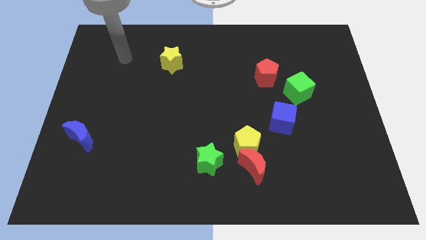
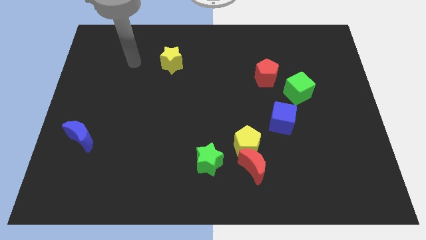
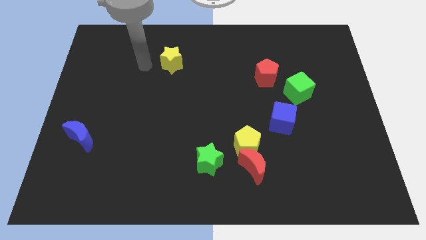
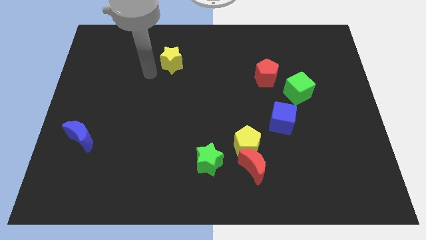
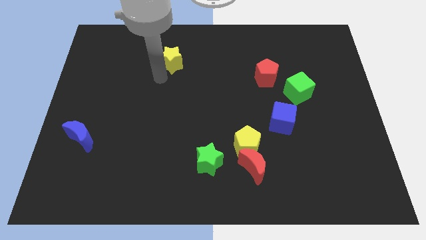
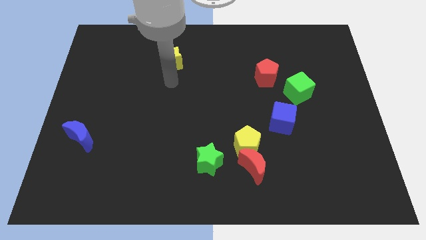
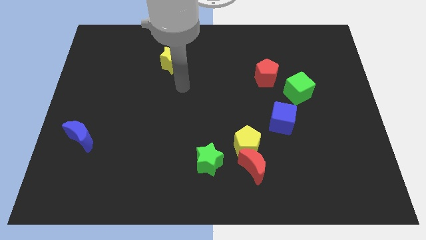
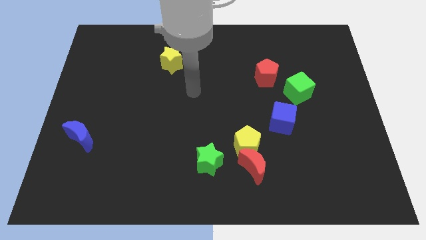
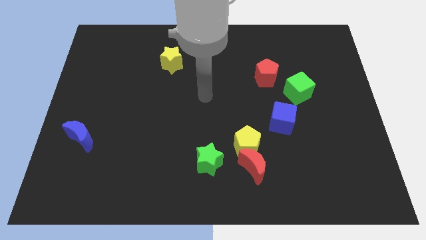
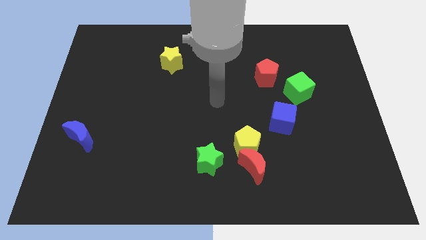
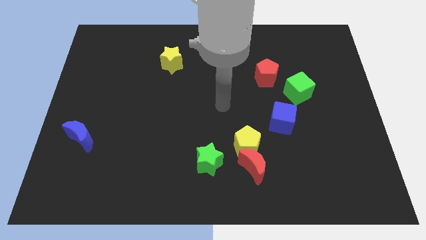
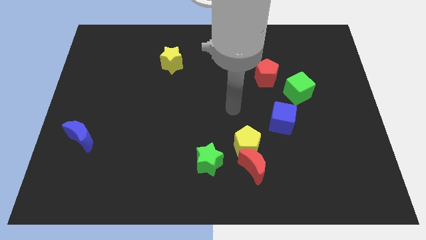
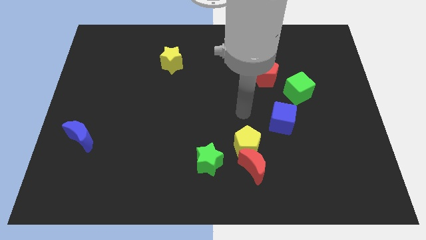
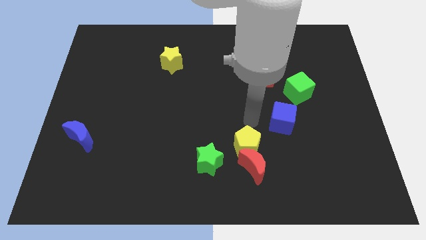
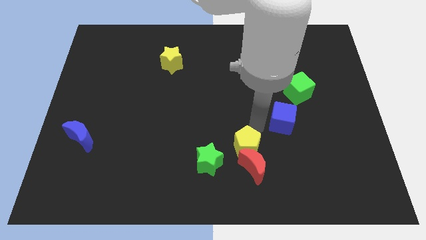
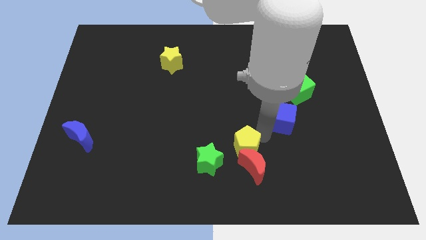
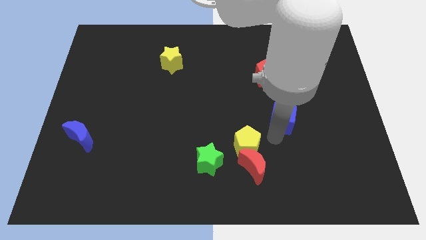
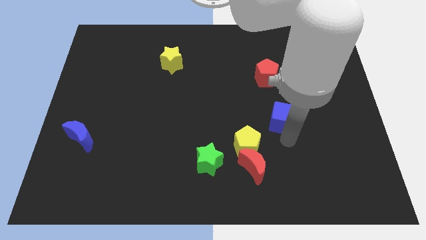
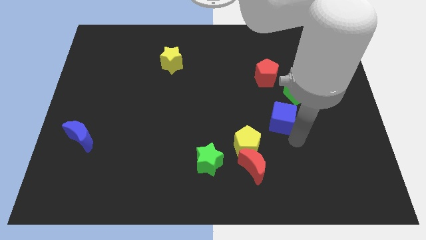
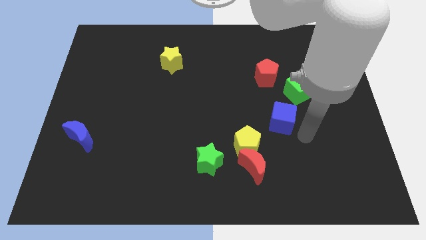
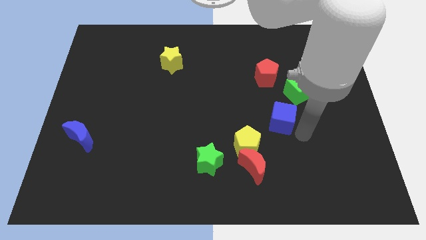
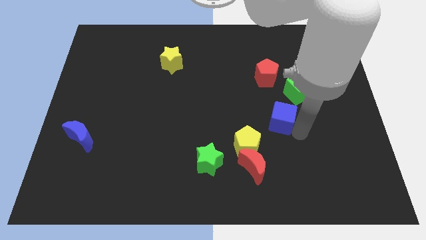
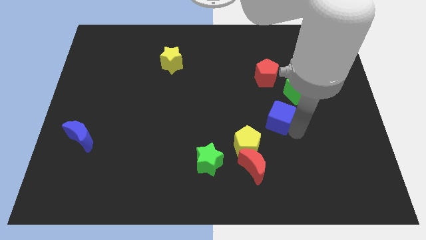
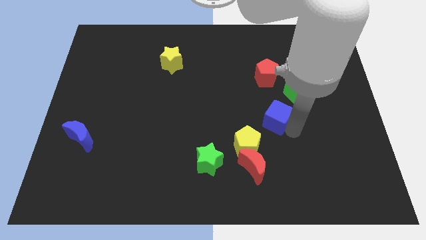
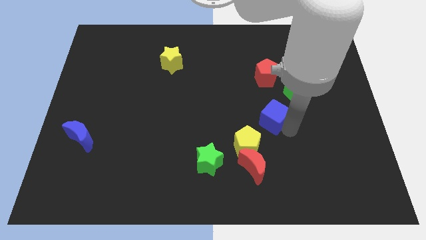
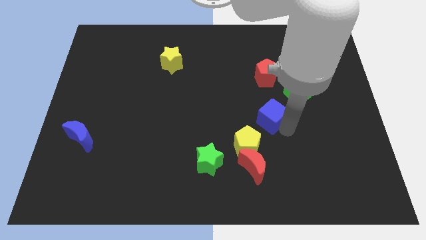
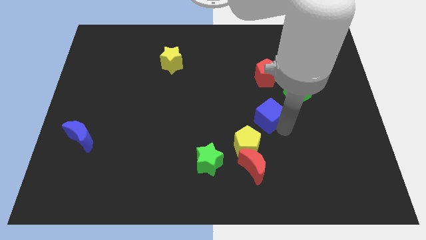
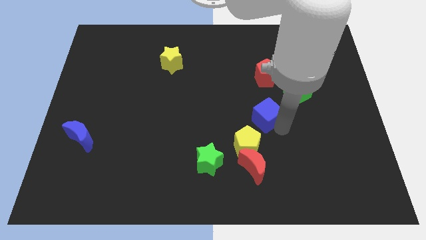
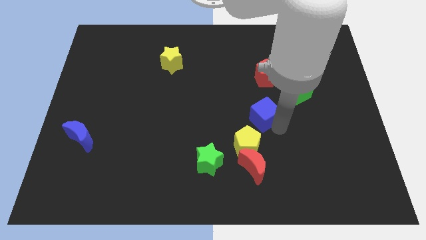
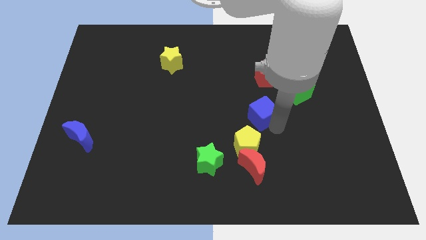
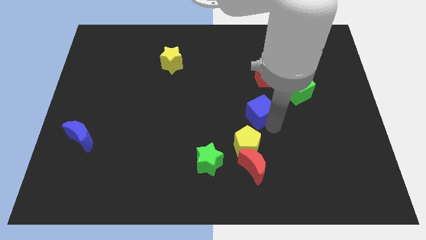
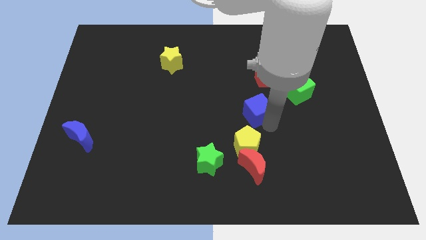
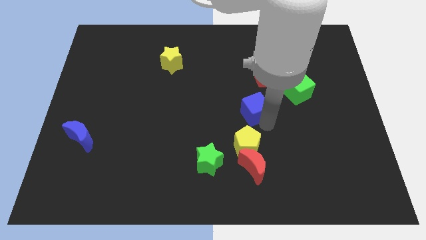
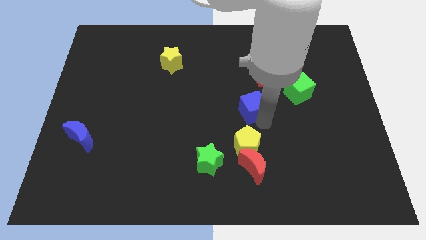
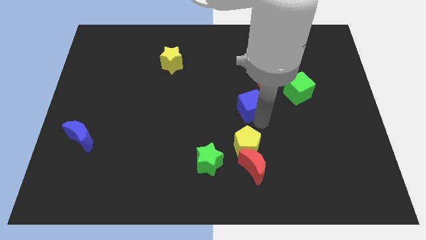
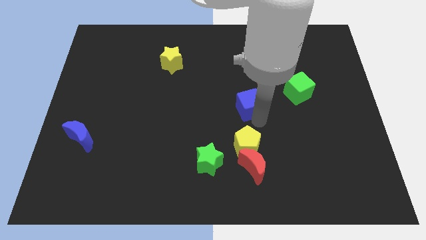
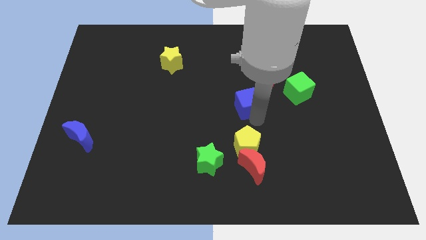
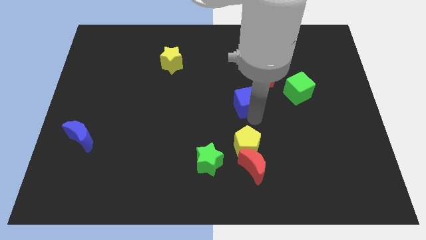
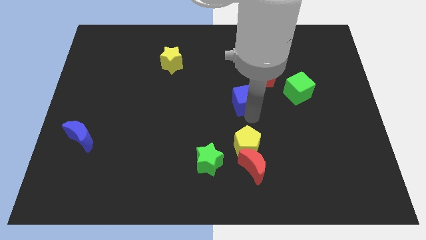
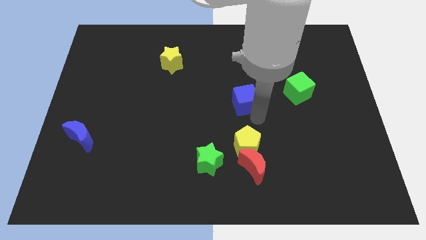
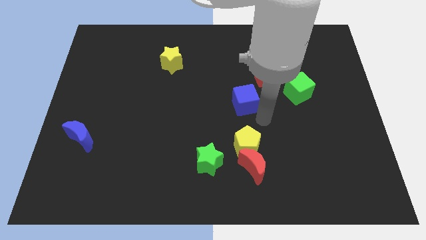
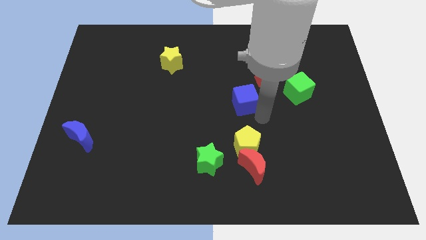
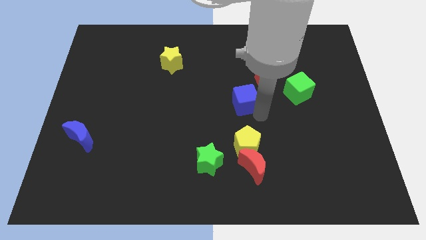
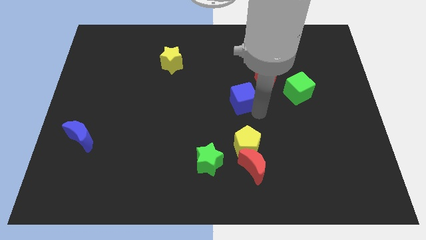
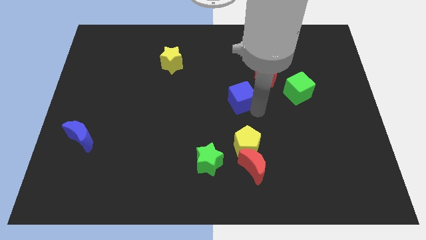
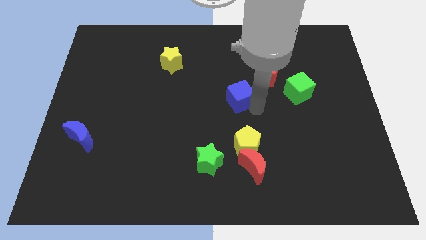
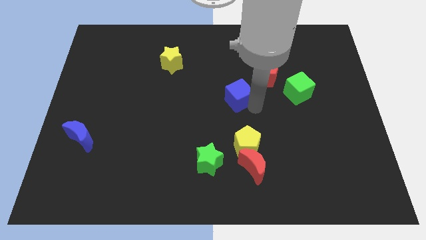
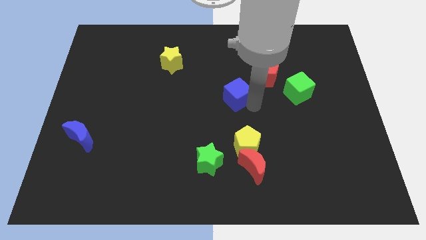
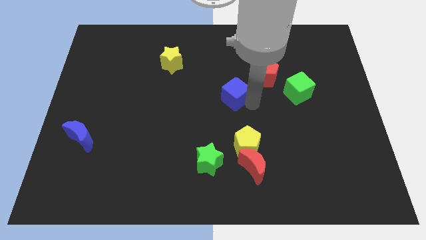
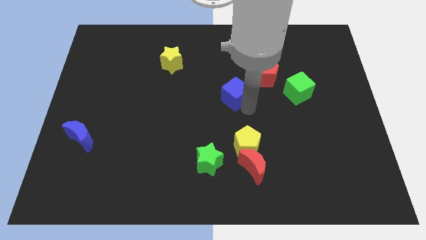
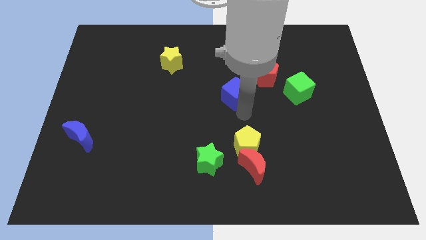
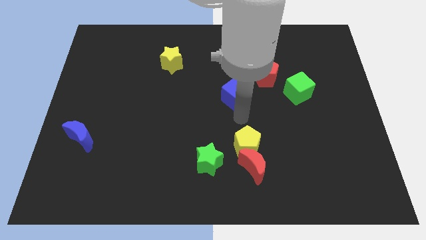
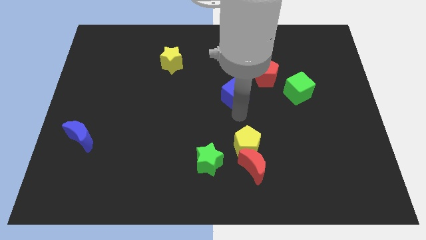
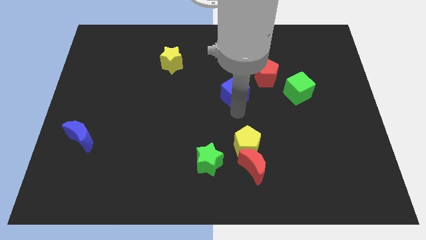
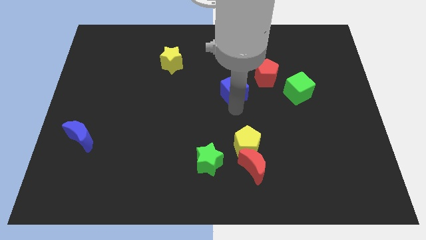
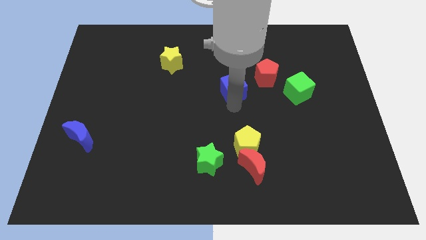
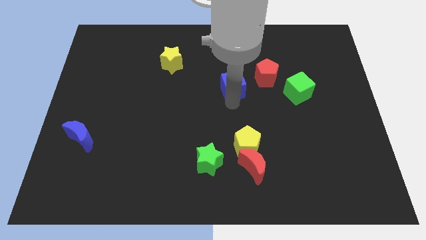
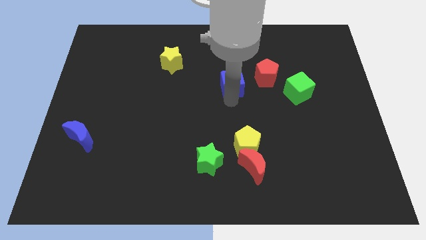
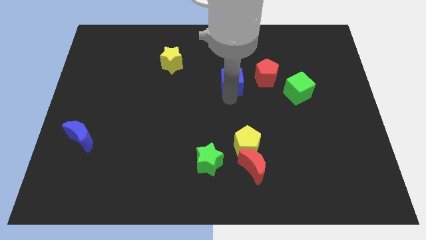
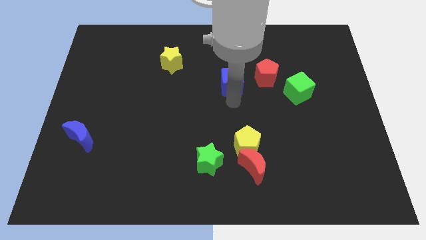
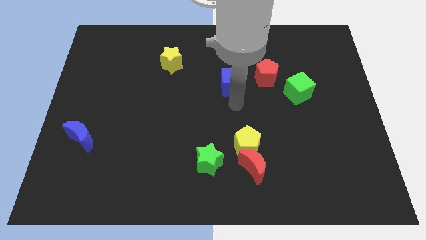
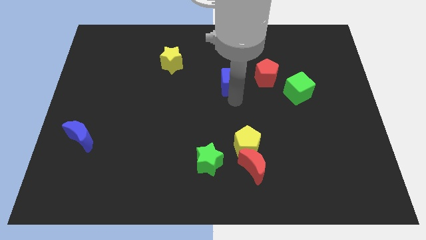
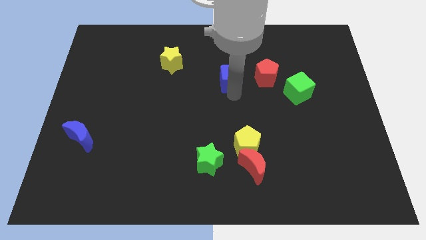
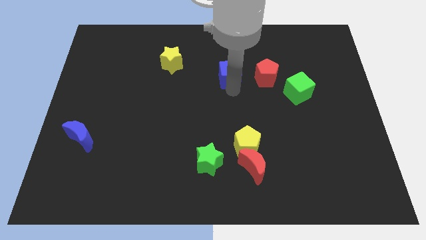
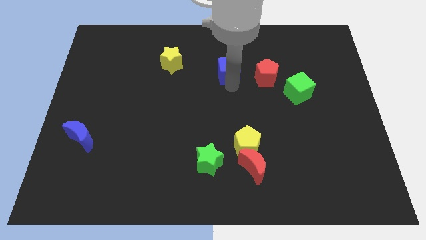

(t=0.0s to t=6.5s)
move the blue cube upwards a bit

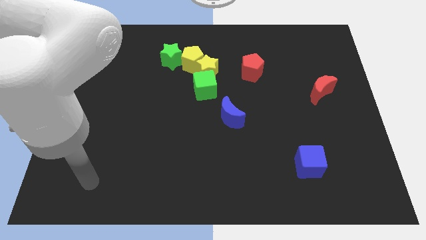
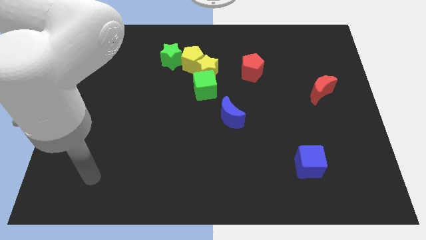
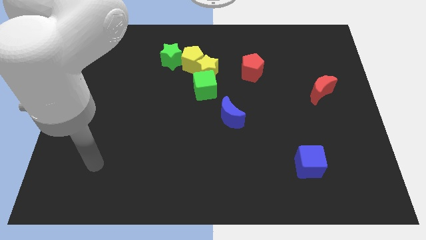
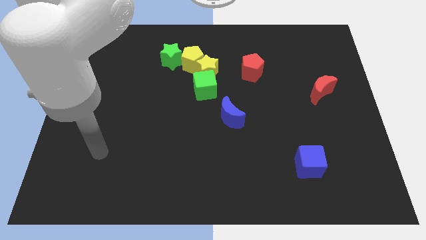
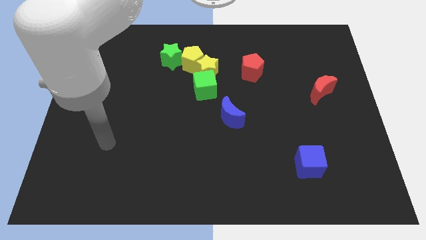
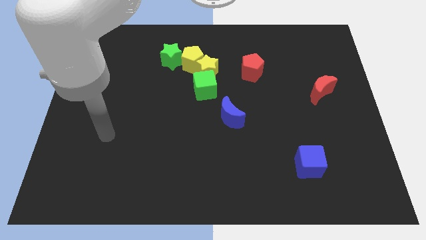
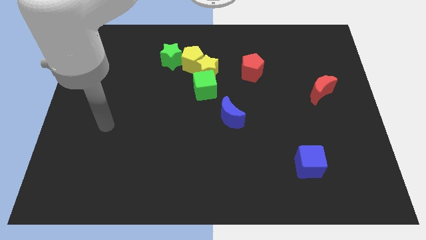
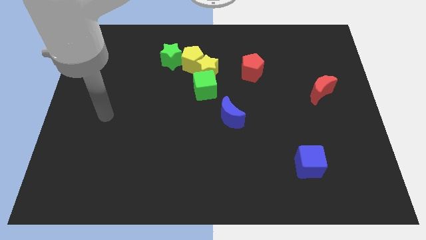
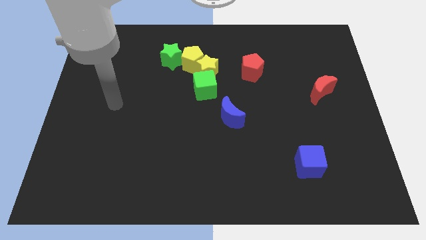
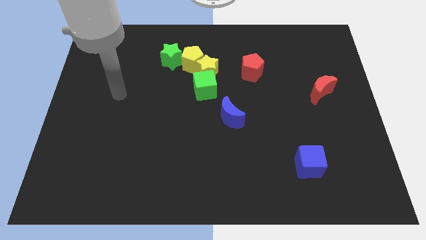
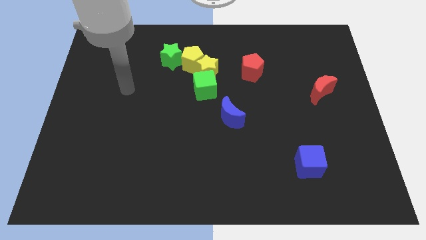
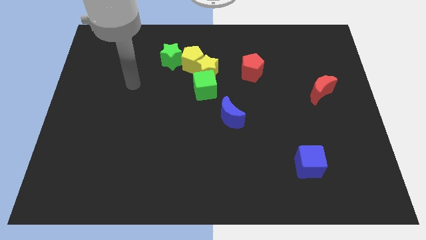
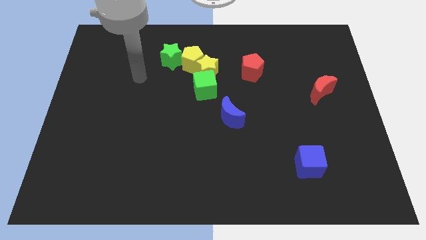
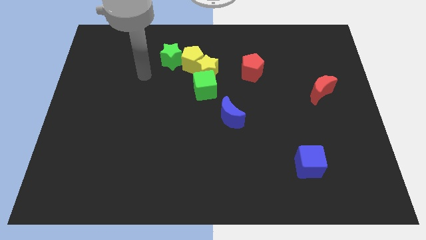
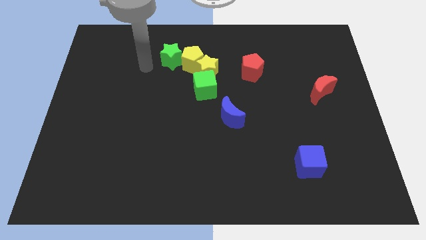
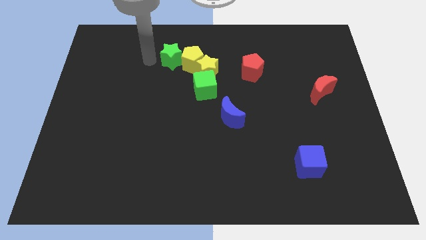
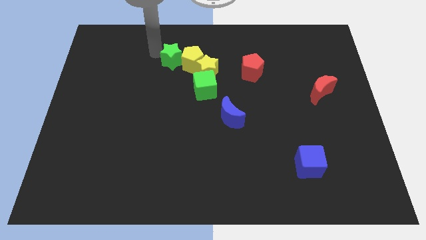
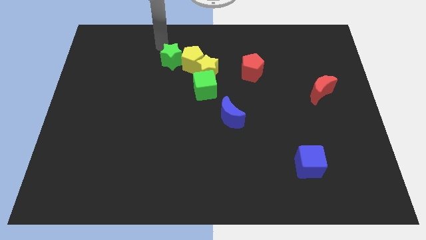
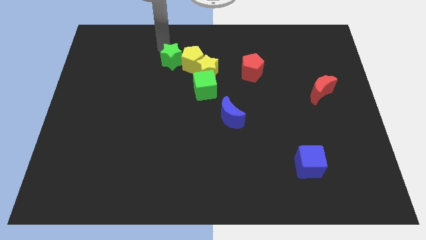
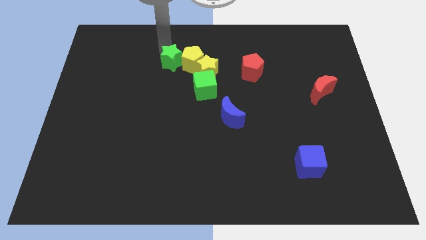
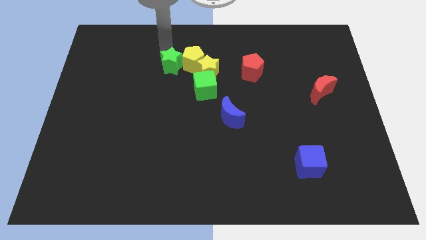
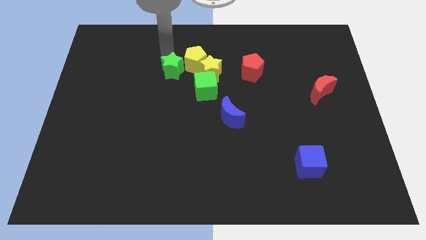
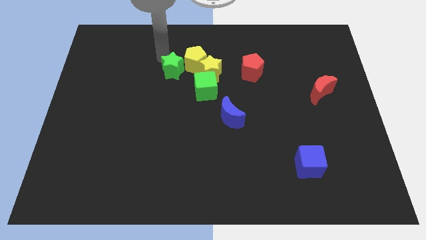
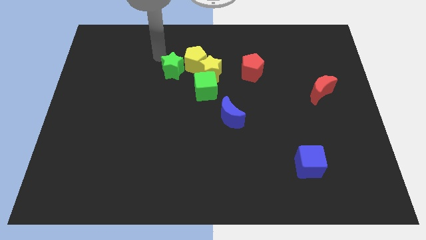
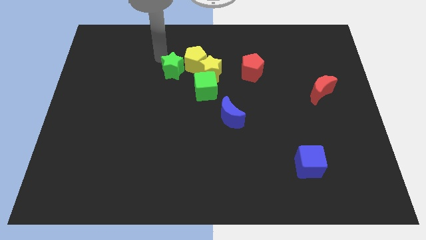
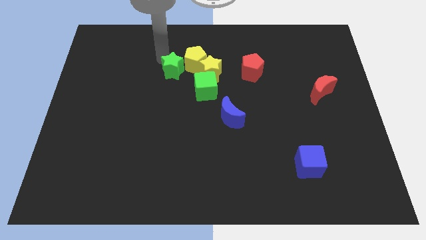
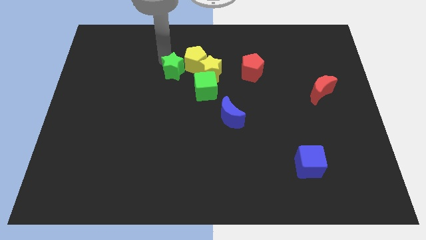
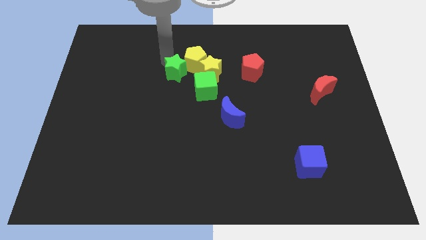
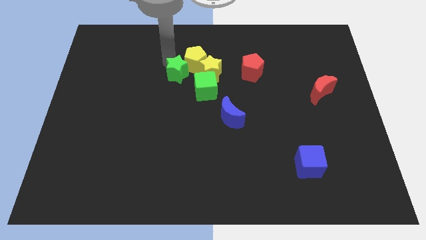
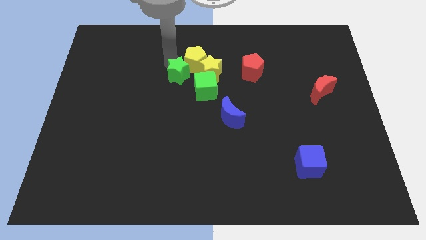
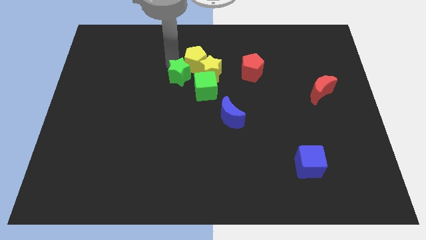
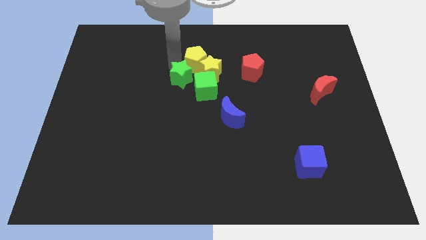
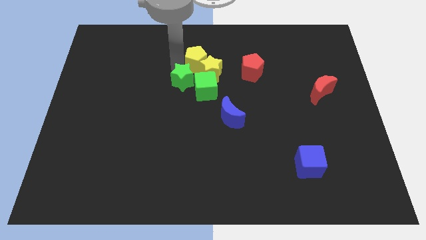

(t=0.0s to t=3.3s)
slightly push the green star downwards and to the right
